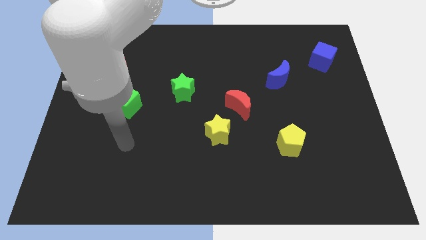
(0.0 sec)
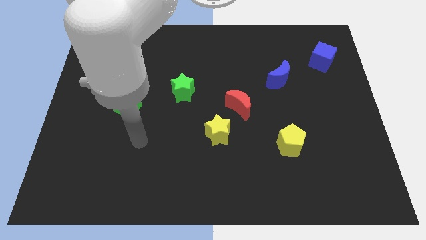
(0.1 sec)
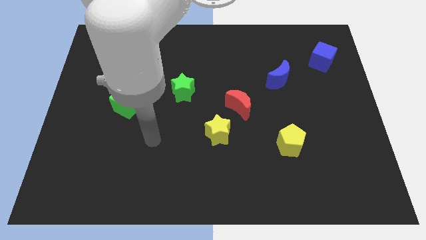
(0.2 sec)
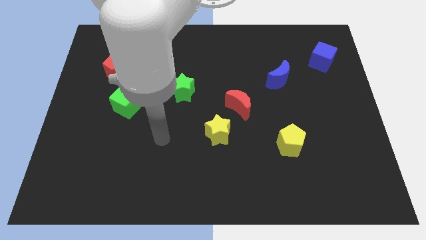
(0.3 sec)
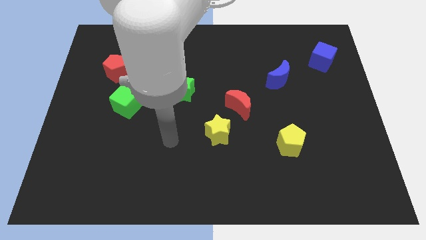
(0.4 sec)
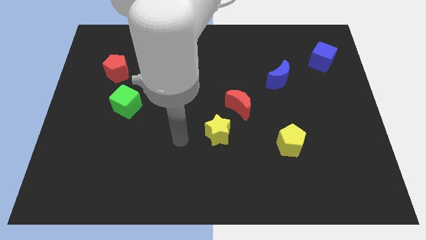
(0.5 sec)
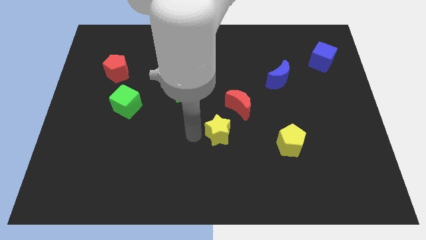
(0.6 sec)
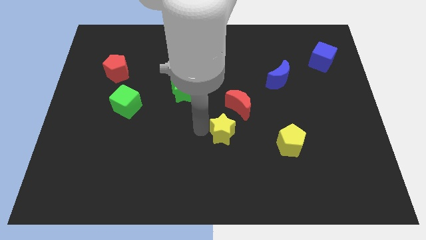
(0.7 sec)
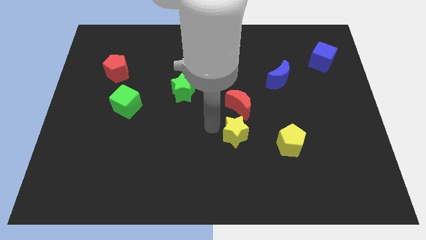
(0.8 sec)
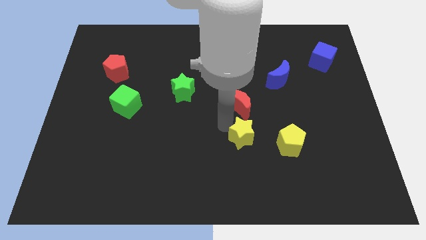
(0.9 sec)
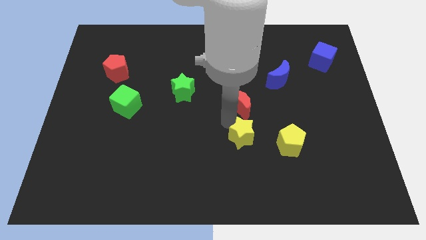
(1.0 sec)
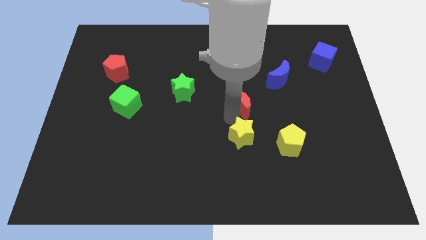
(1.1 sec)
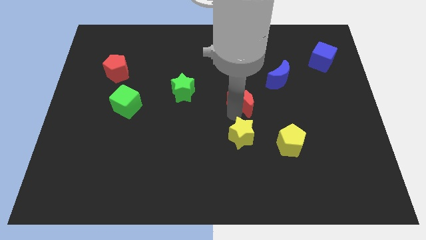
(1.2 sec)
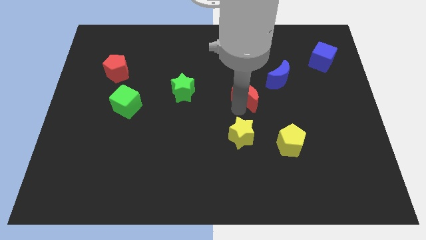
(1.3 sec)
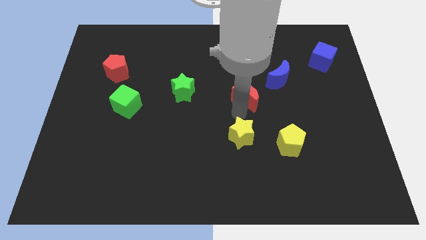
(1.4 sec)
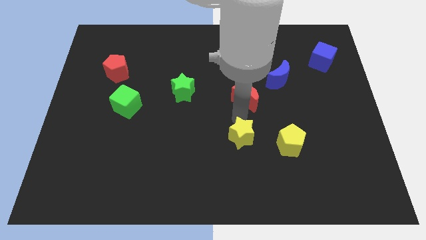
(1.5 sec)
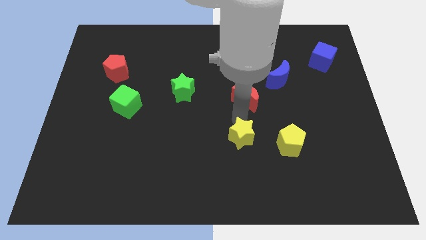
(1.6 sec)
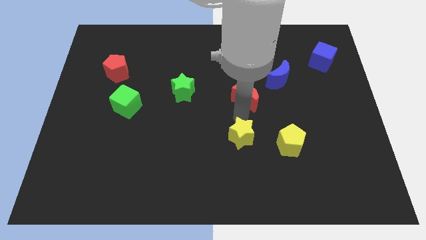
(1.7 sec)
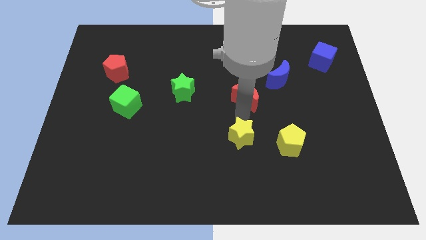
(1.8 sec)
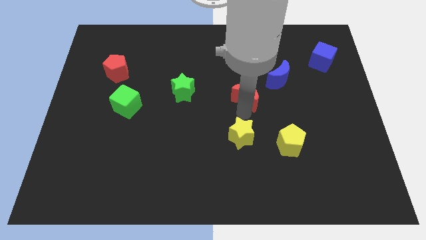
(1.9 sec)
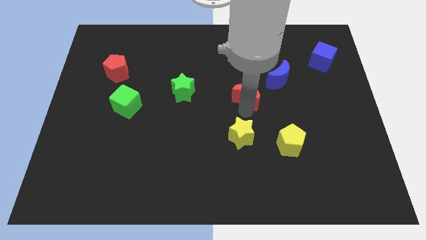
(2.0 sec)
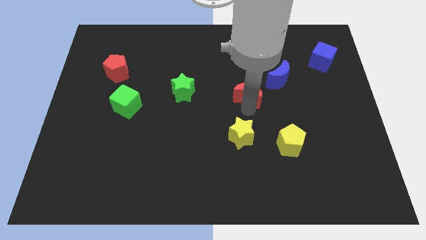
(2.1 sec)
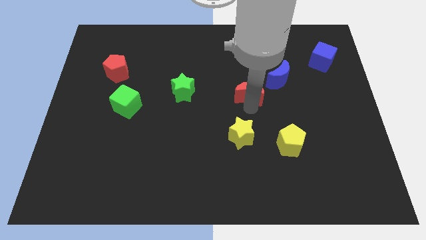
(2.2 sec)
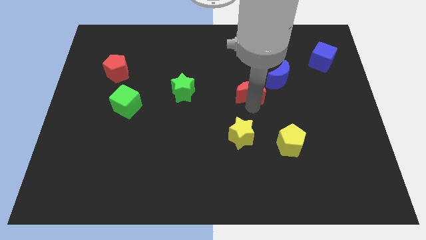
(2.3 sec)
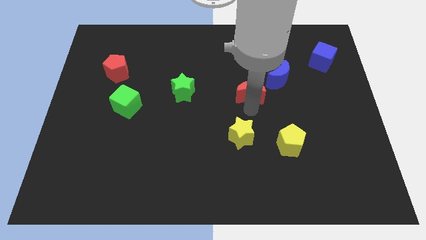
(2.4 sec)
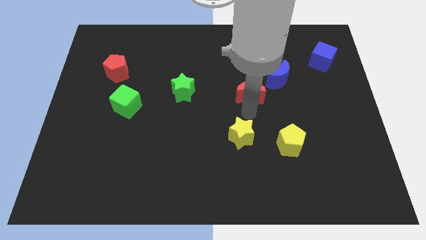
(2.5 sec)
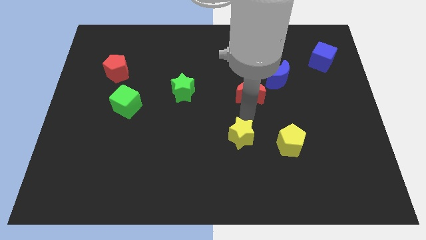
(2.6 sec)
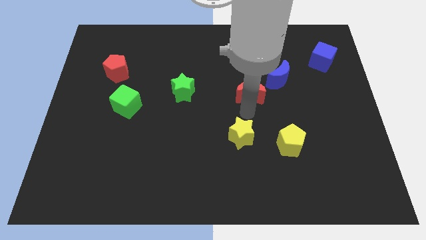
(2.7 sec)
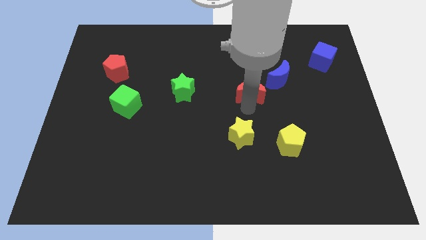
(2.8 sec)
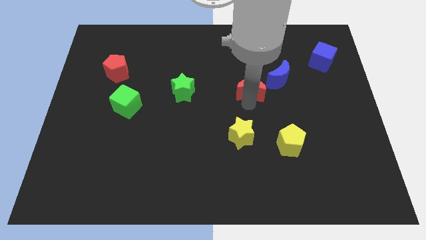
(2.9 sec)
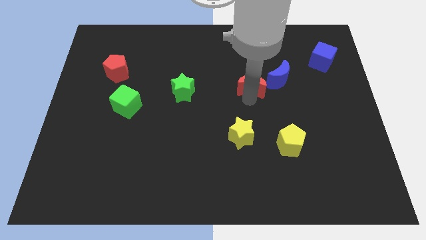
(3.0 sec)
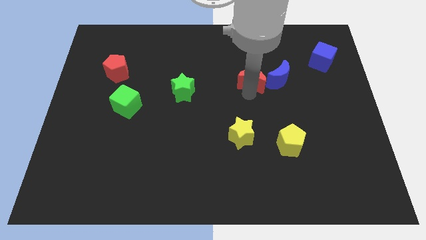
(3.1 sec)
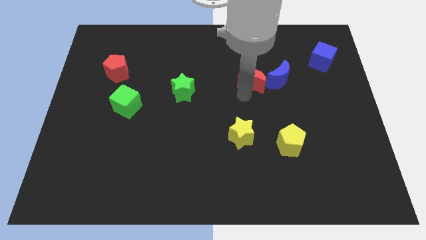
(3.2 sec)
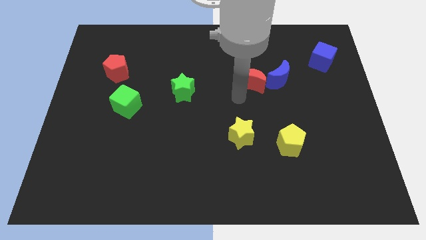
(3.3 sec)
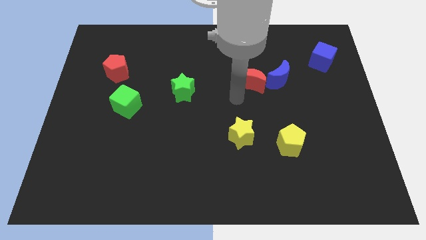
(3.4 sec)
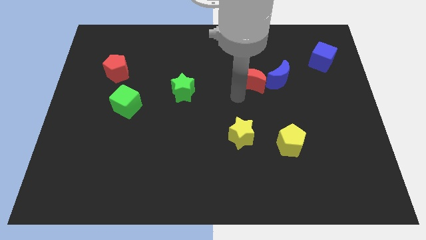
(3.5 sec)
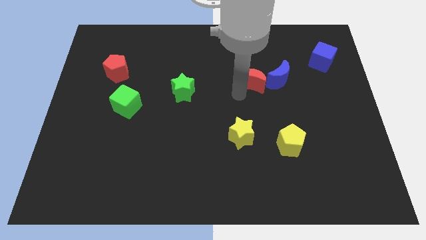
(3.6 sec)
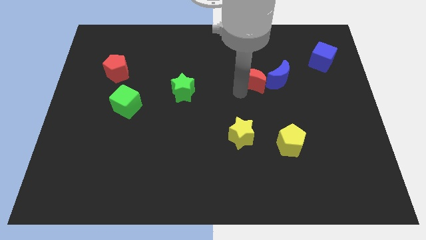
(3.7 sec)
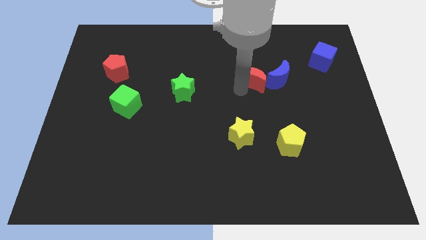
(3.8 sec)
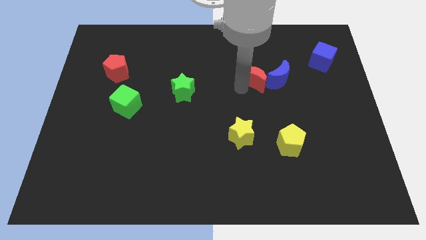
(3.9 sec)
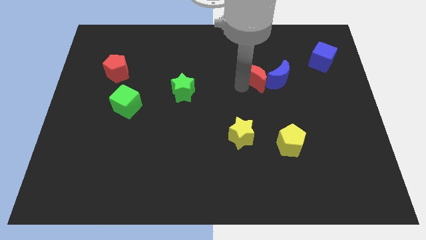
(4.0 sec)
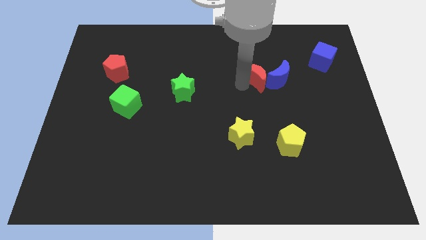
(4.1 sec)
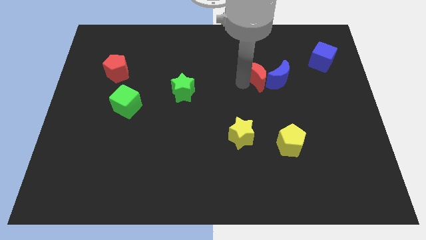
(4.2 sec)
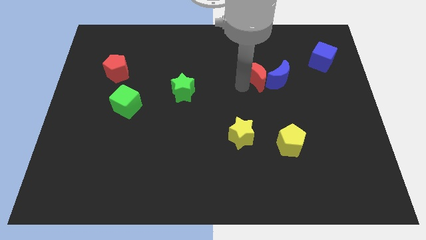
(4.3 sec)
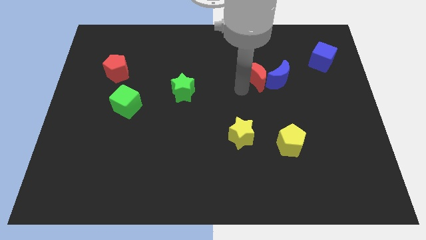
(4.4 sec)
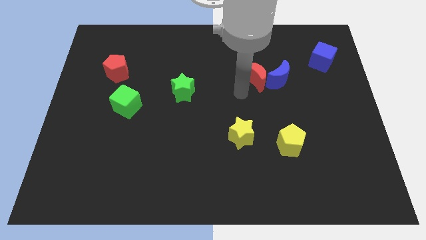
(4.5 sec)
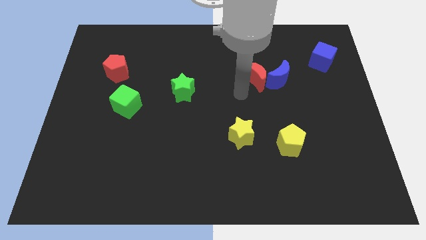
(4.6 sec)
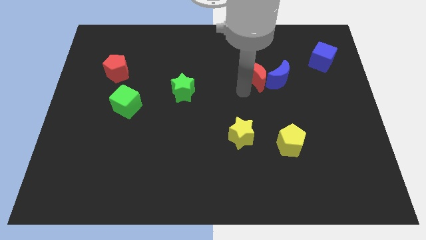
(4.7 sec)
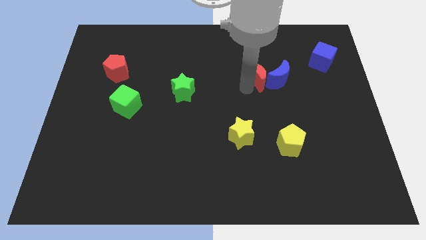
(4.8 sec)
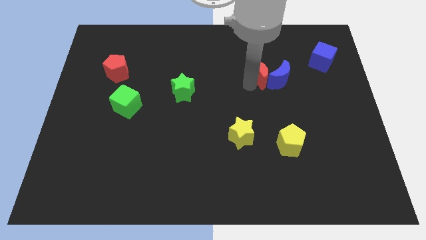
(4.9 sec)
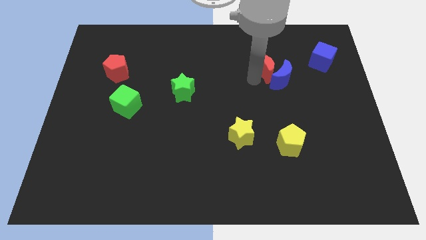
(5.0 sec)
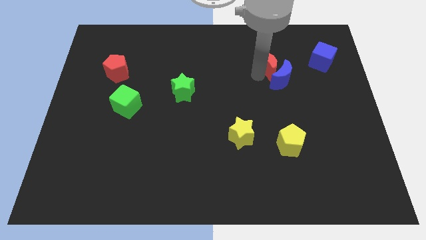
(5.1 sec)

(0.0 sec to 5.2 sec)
move the red moon just left of the blue cube

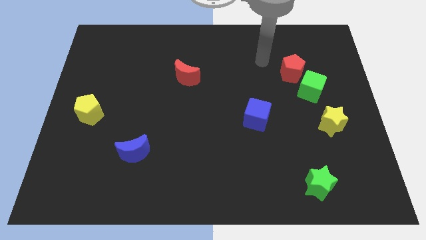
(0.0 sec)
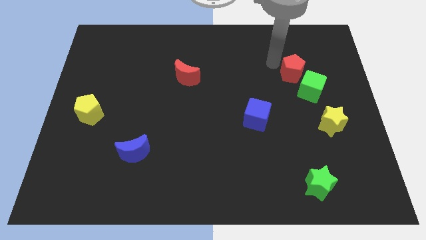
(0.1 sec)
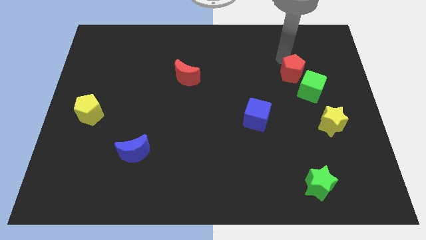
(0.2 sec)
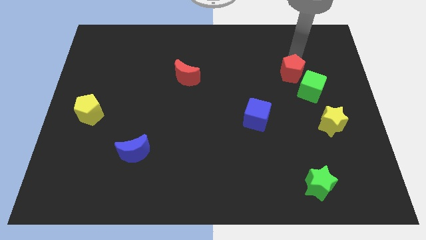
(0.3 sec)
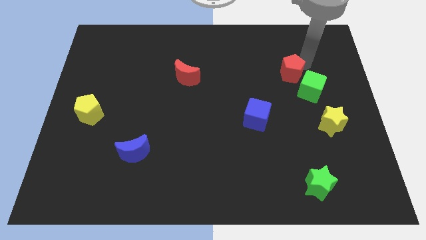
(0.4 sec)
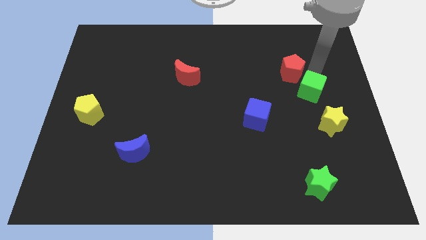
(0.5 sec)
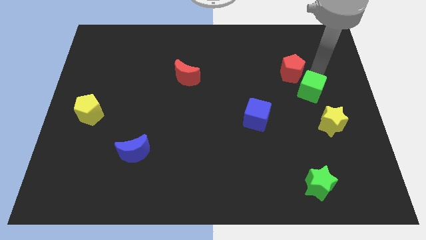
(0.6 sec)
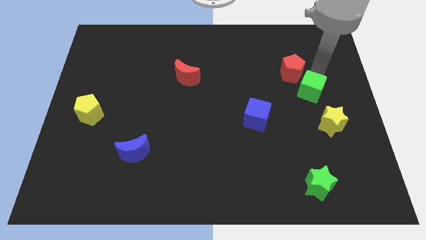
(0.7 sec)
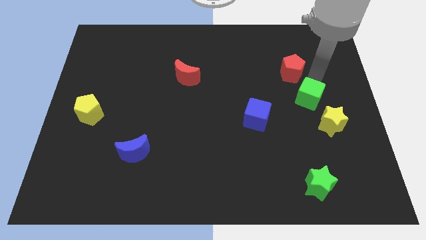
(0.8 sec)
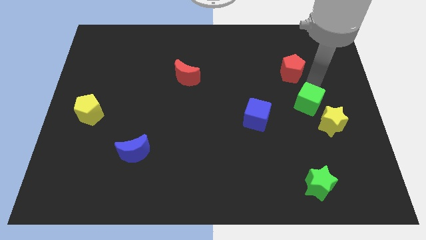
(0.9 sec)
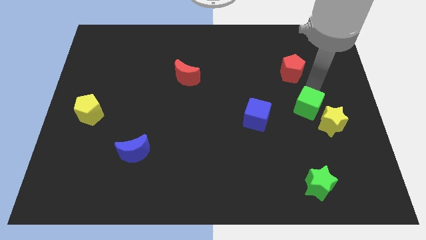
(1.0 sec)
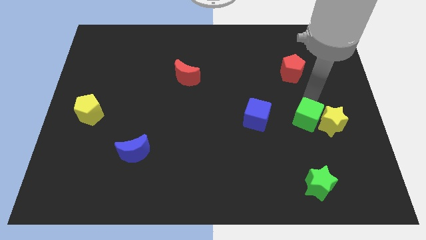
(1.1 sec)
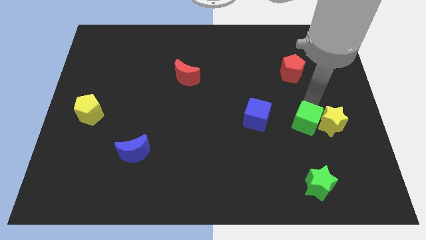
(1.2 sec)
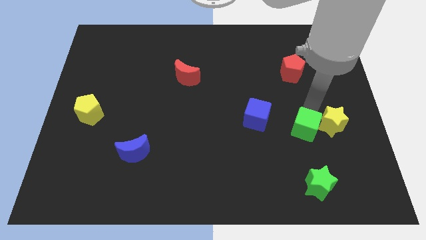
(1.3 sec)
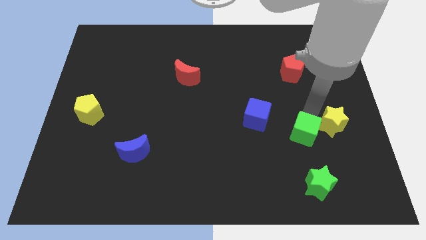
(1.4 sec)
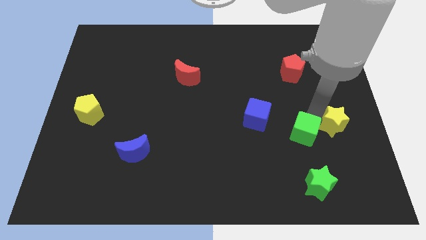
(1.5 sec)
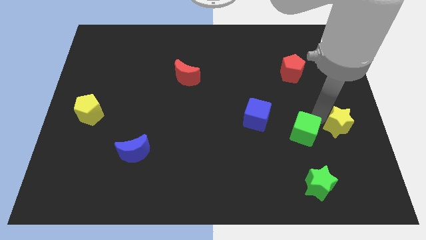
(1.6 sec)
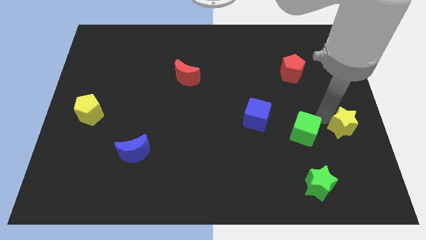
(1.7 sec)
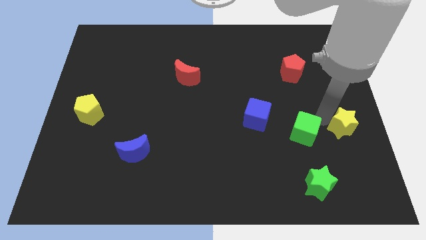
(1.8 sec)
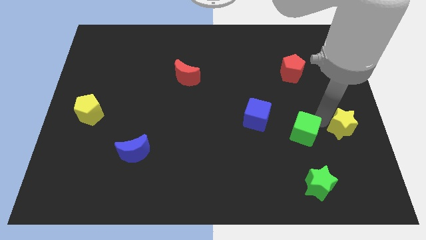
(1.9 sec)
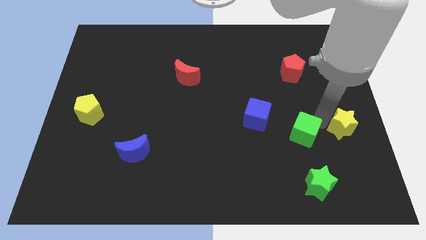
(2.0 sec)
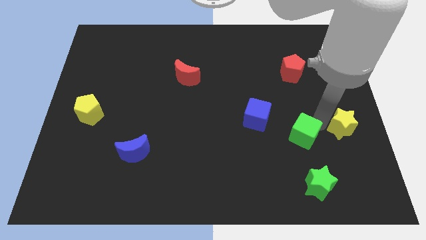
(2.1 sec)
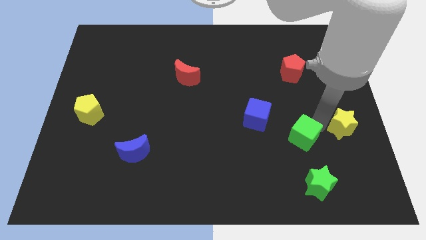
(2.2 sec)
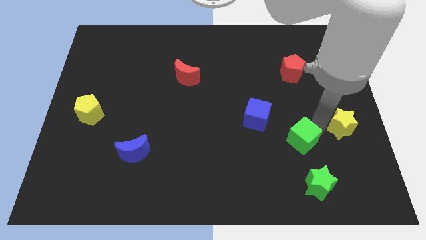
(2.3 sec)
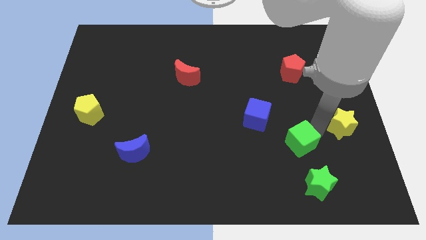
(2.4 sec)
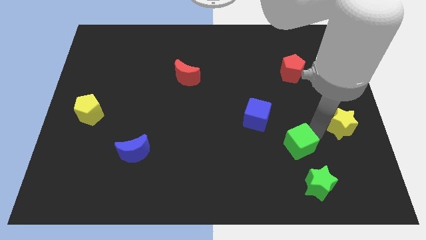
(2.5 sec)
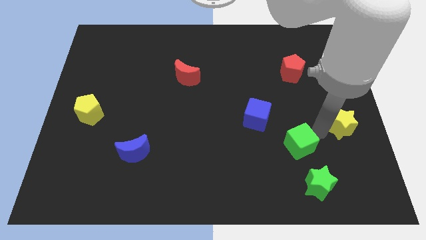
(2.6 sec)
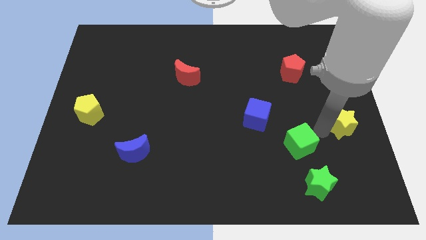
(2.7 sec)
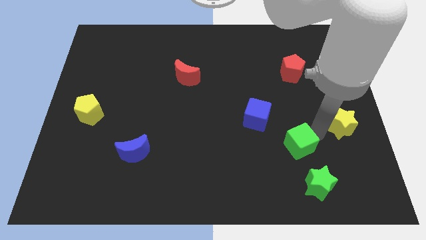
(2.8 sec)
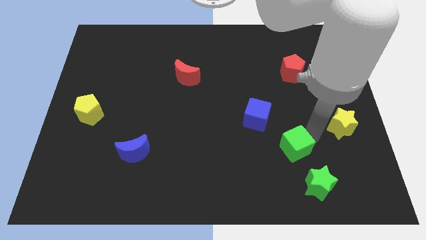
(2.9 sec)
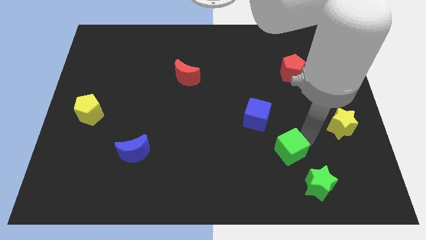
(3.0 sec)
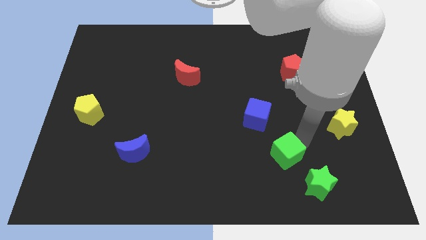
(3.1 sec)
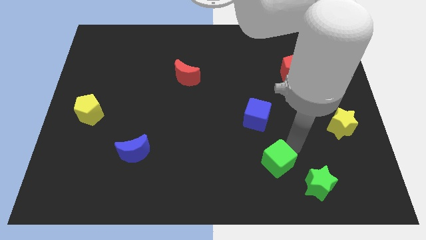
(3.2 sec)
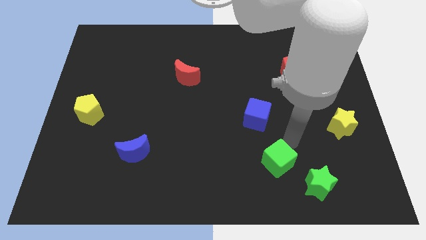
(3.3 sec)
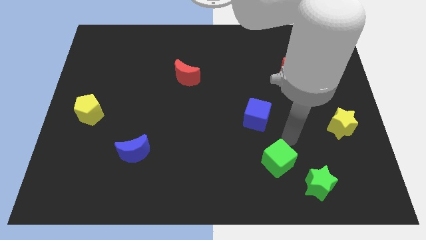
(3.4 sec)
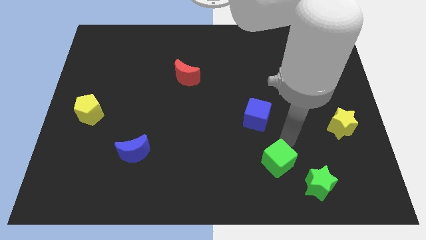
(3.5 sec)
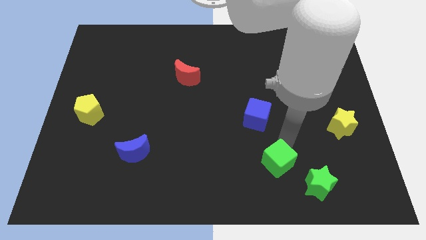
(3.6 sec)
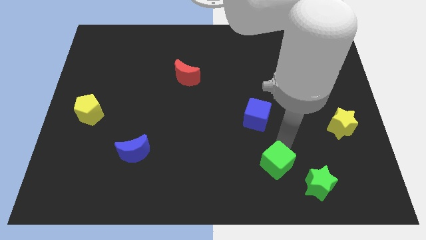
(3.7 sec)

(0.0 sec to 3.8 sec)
push the green cube to the left of the green star
